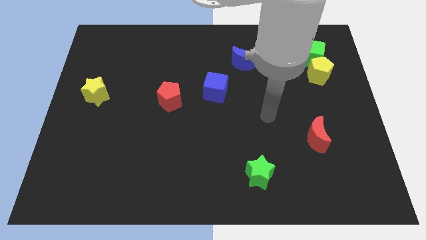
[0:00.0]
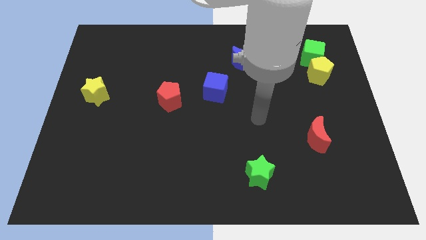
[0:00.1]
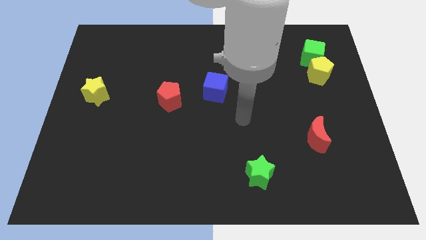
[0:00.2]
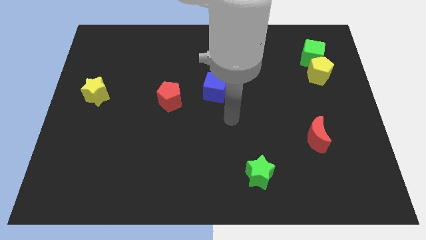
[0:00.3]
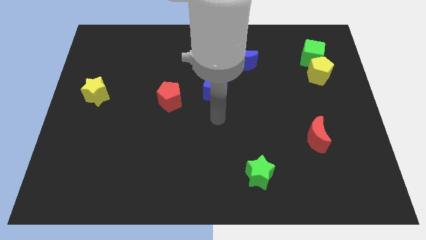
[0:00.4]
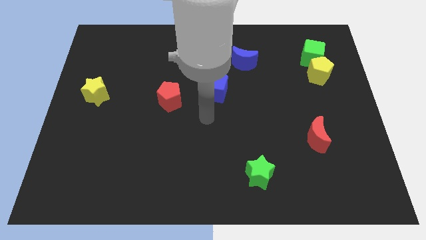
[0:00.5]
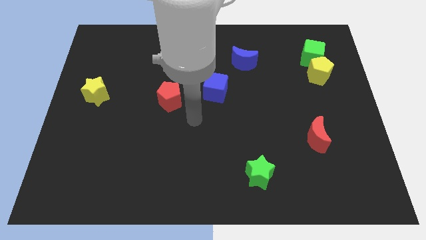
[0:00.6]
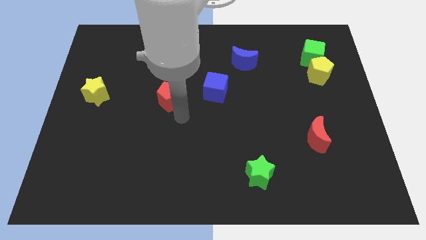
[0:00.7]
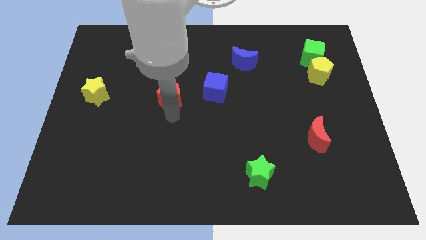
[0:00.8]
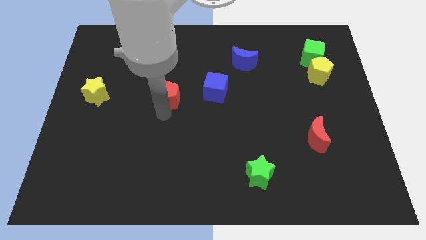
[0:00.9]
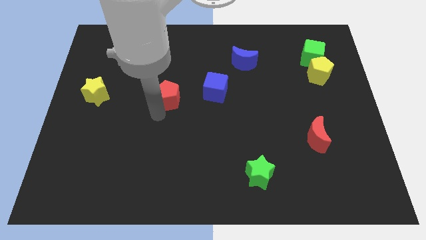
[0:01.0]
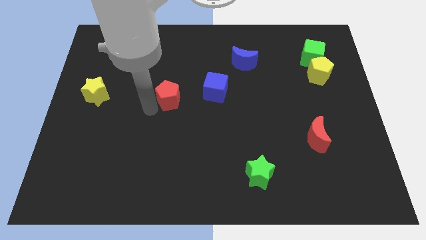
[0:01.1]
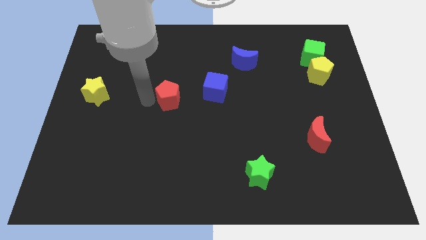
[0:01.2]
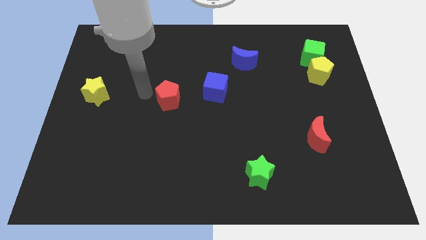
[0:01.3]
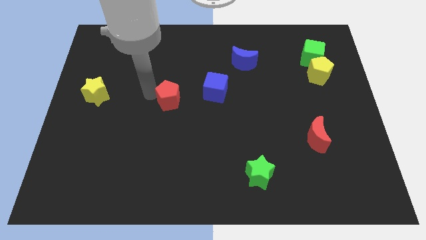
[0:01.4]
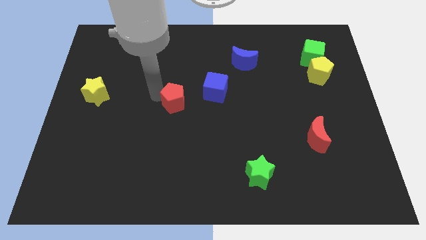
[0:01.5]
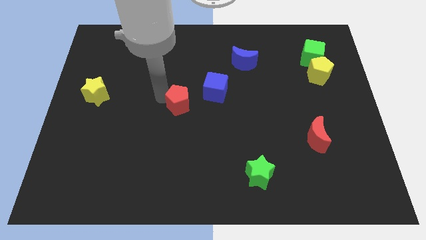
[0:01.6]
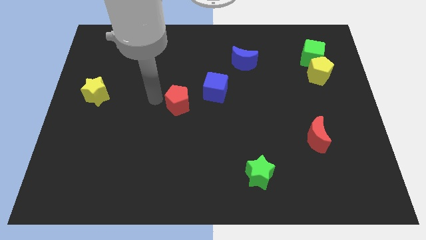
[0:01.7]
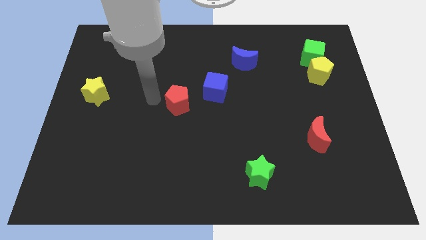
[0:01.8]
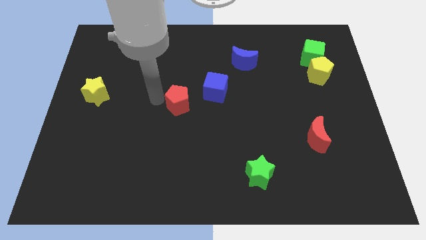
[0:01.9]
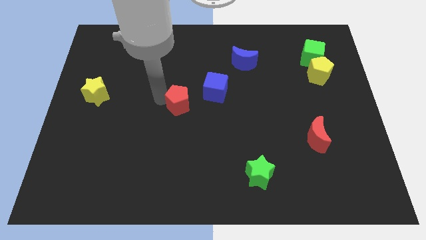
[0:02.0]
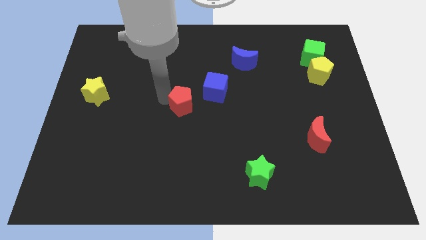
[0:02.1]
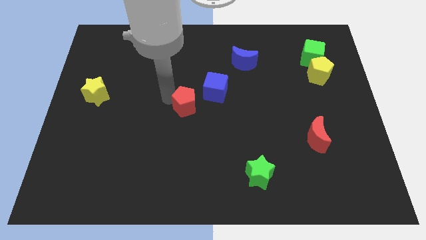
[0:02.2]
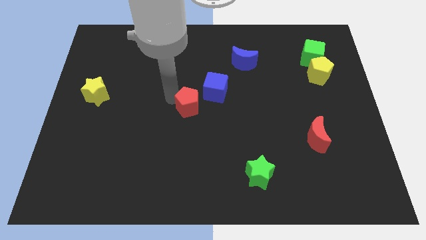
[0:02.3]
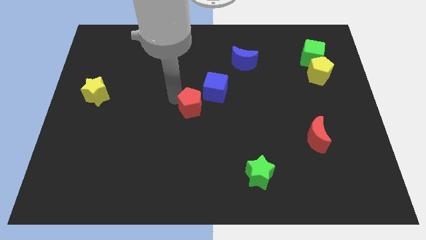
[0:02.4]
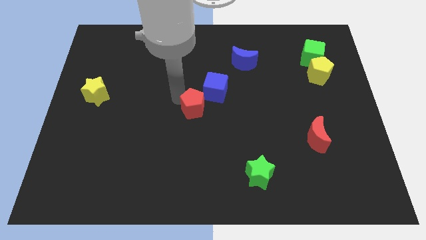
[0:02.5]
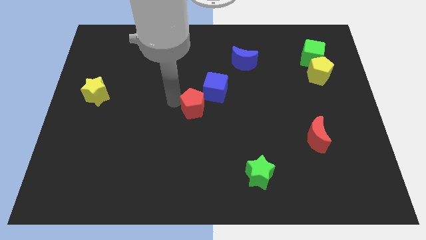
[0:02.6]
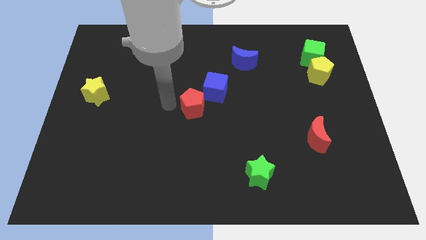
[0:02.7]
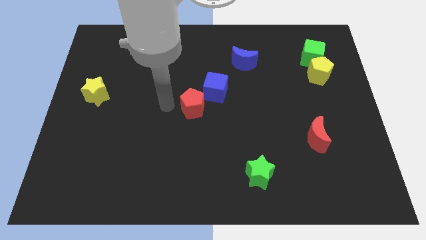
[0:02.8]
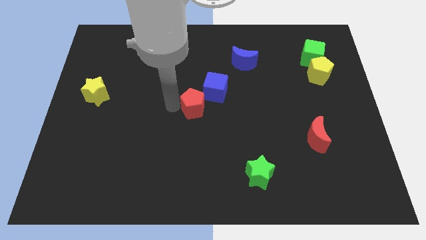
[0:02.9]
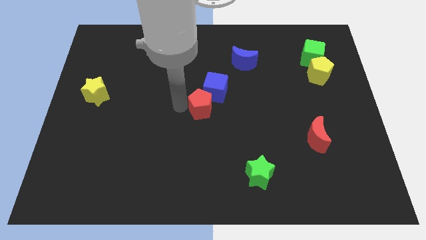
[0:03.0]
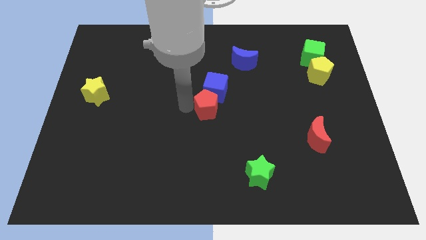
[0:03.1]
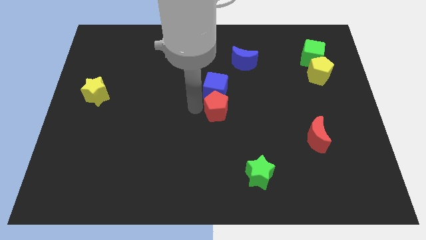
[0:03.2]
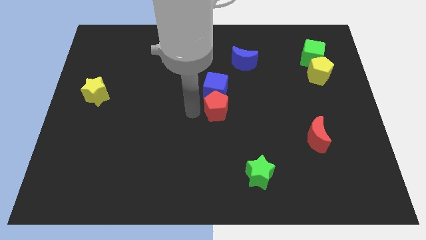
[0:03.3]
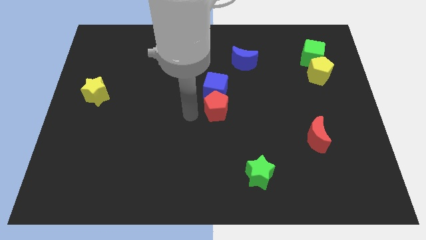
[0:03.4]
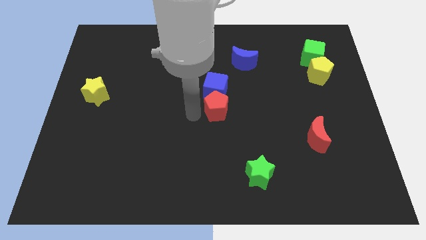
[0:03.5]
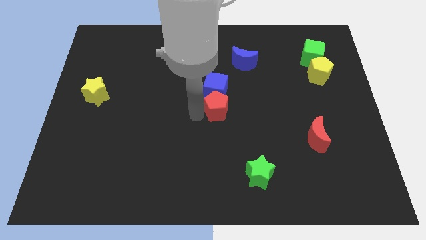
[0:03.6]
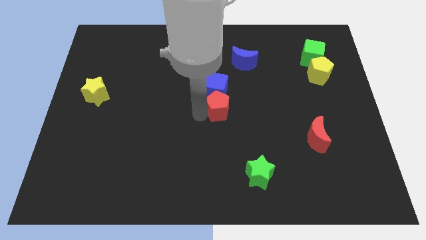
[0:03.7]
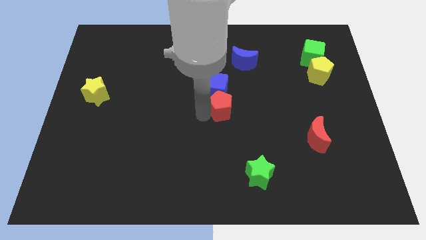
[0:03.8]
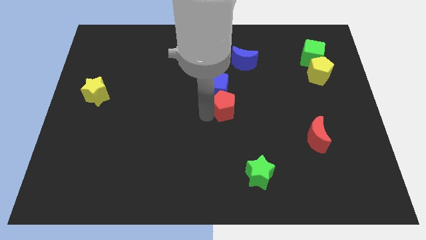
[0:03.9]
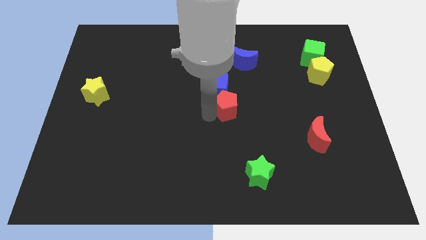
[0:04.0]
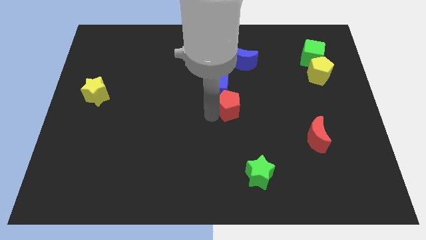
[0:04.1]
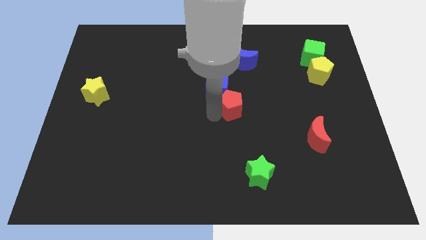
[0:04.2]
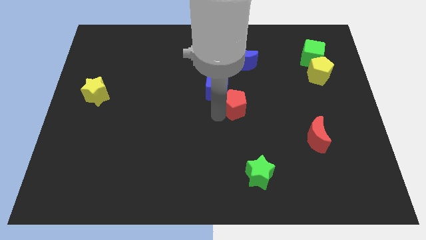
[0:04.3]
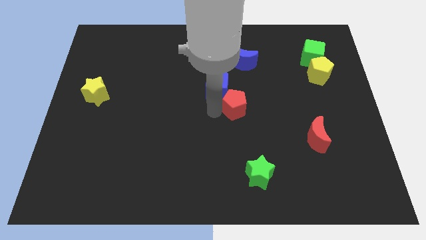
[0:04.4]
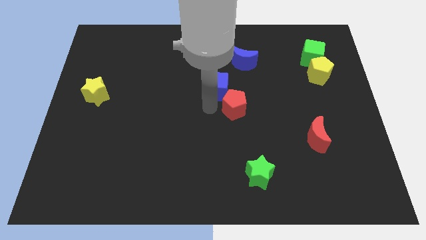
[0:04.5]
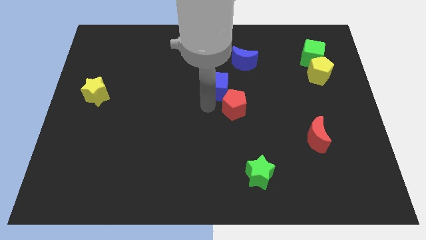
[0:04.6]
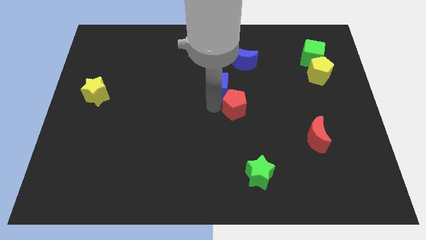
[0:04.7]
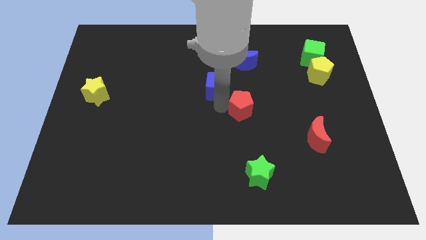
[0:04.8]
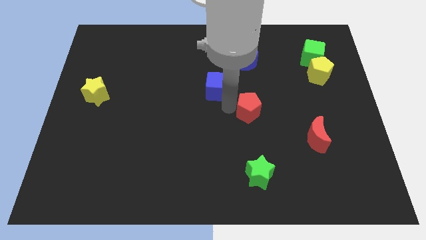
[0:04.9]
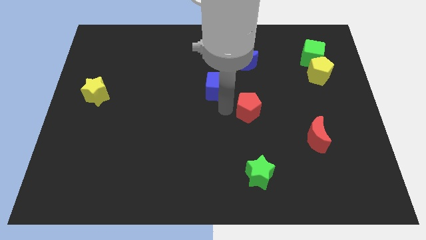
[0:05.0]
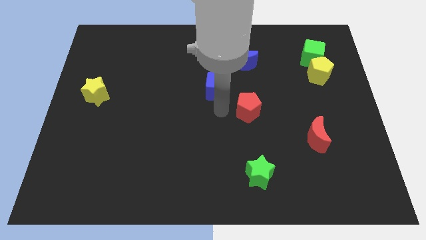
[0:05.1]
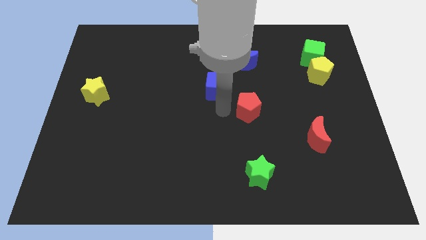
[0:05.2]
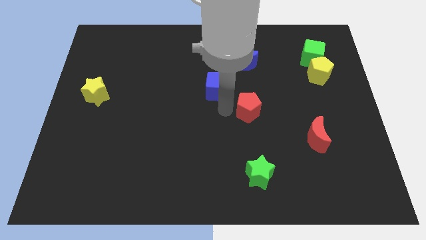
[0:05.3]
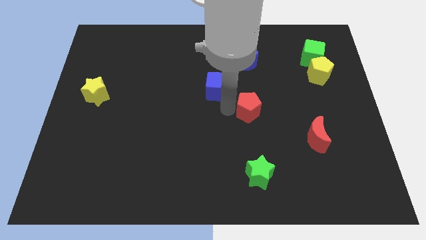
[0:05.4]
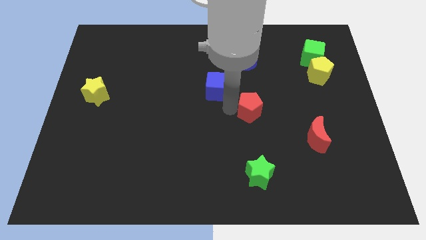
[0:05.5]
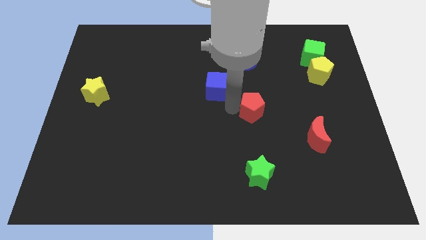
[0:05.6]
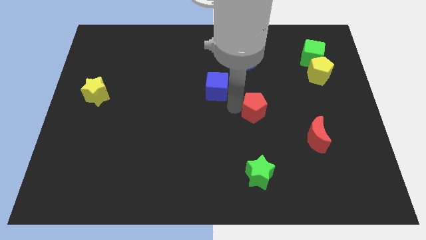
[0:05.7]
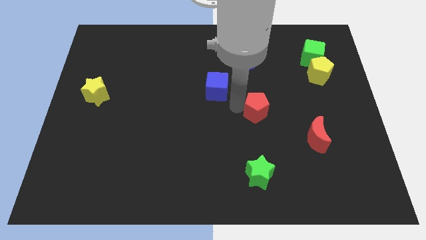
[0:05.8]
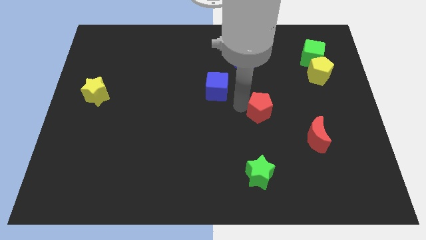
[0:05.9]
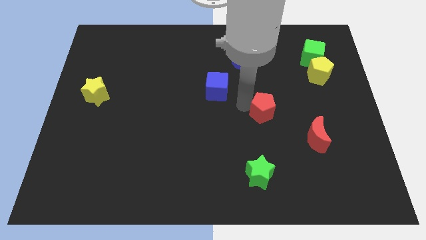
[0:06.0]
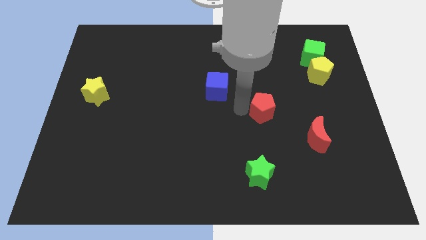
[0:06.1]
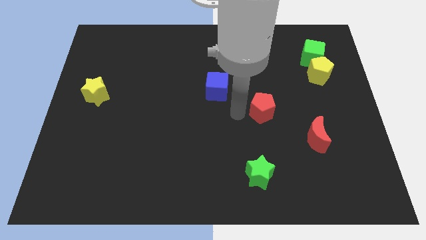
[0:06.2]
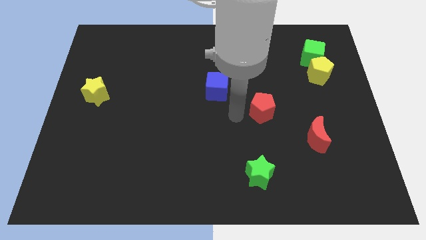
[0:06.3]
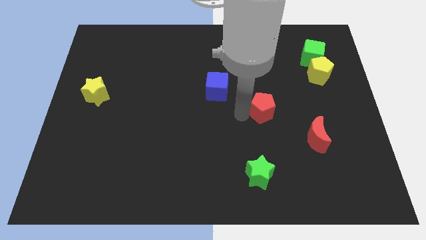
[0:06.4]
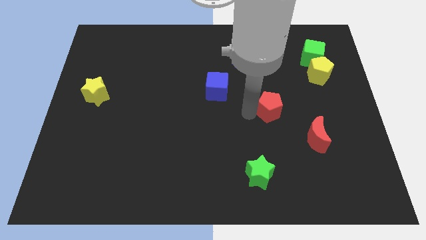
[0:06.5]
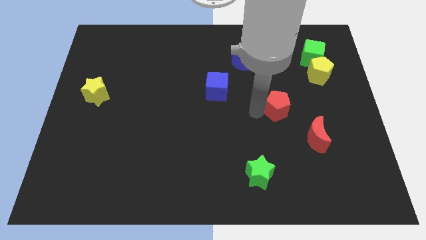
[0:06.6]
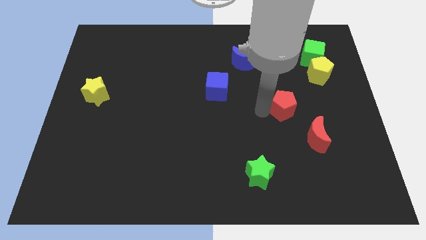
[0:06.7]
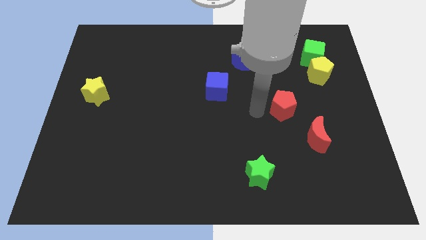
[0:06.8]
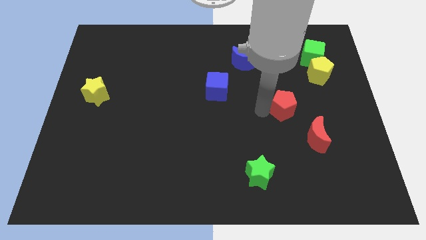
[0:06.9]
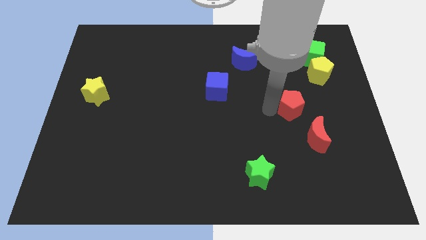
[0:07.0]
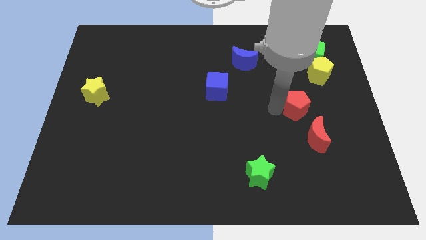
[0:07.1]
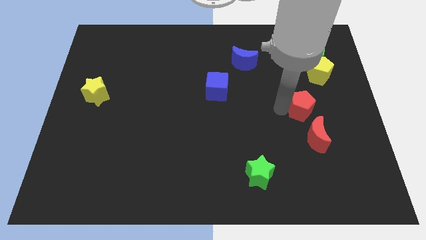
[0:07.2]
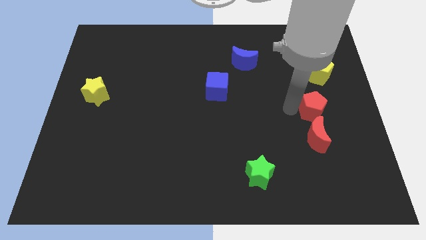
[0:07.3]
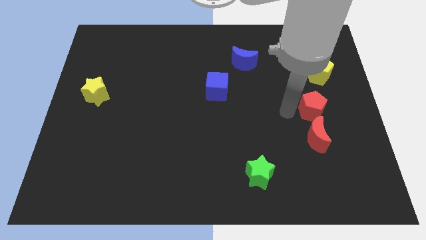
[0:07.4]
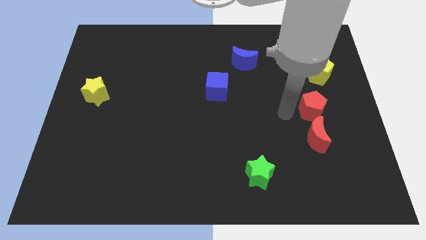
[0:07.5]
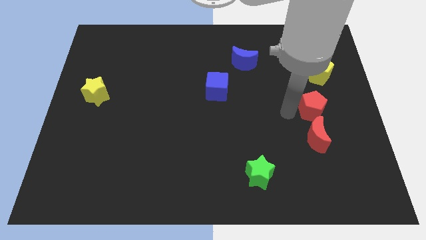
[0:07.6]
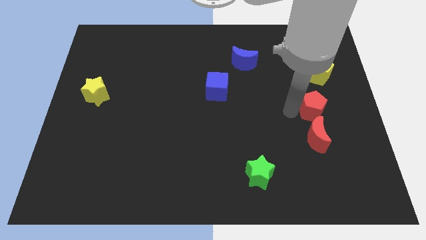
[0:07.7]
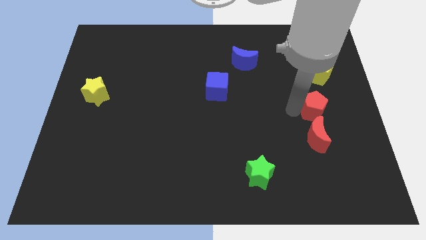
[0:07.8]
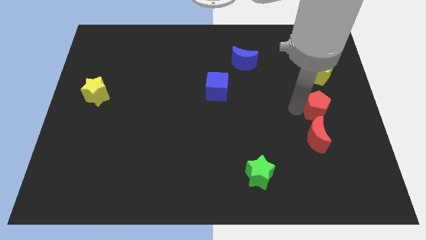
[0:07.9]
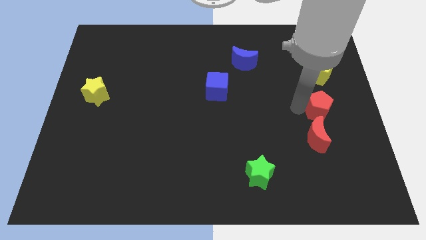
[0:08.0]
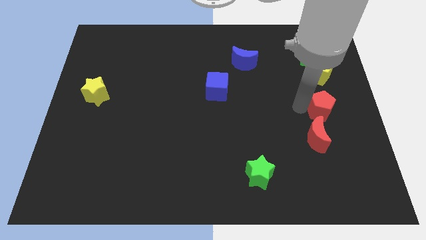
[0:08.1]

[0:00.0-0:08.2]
put the red pentagon to the center right
